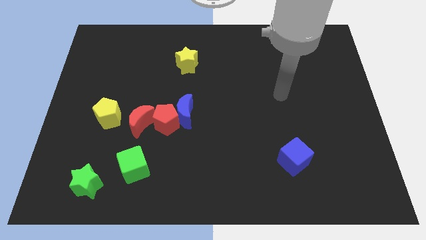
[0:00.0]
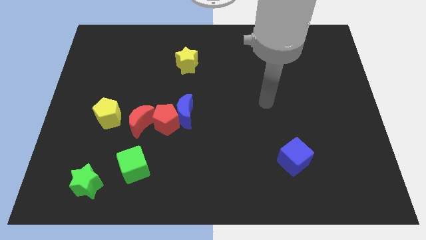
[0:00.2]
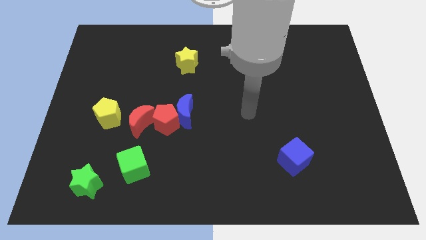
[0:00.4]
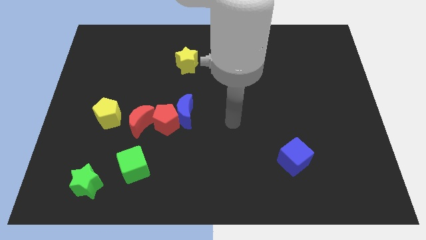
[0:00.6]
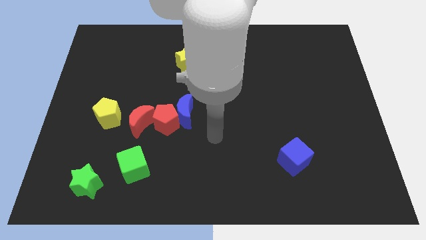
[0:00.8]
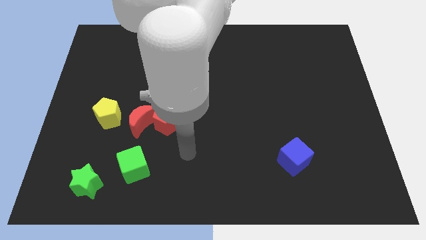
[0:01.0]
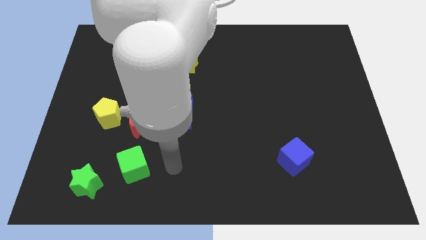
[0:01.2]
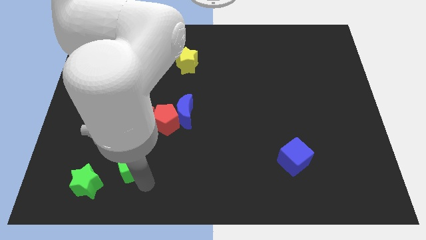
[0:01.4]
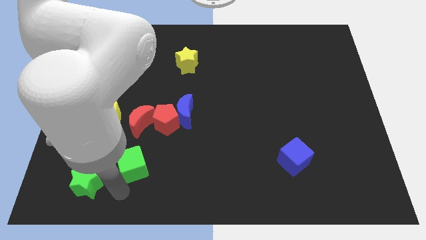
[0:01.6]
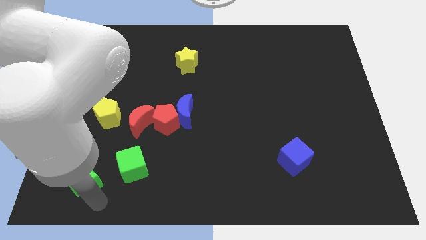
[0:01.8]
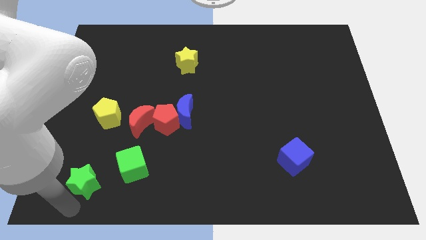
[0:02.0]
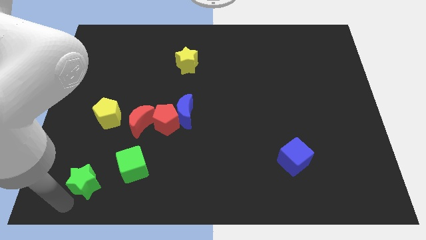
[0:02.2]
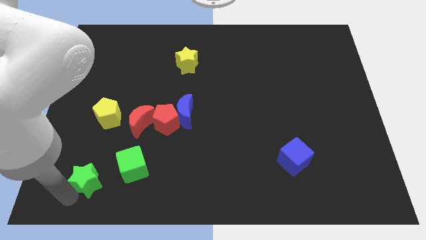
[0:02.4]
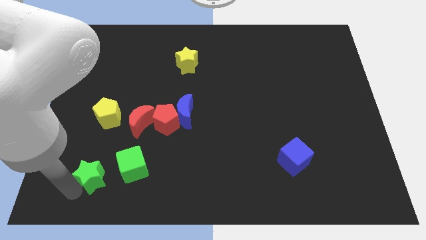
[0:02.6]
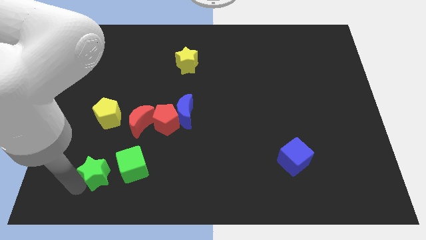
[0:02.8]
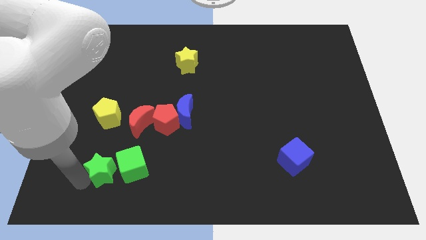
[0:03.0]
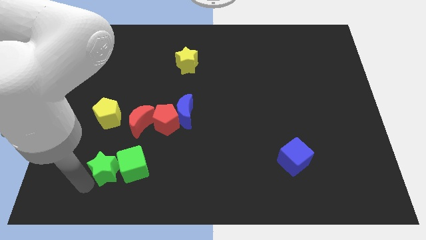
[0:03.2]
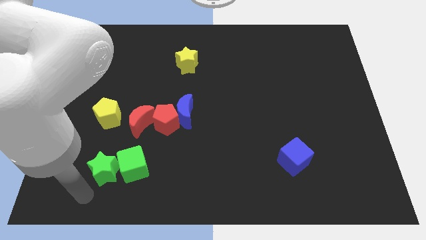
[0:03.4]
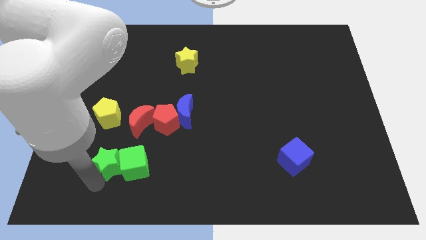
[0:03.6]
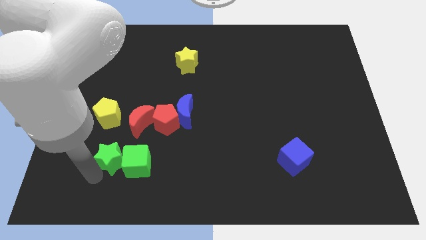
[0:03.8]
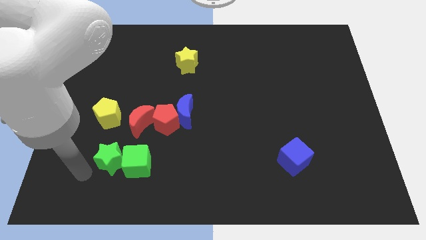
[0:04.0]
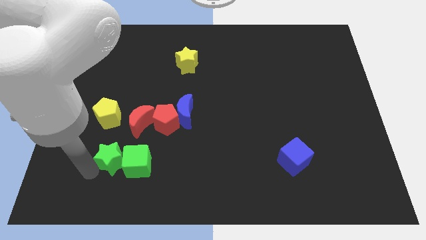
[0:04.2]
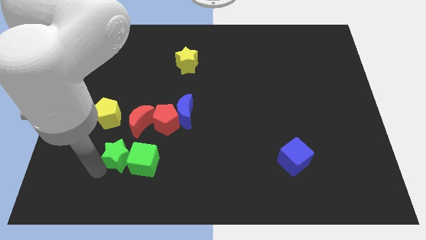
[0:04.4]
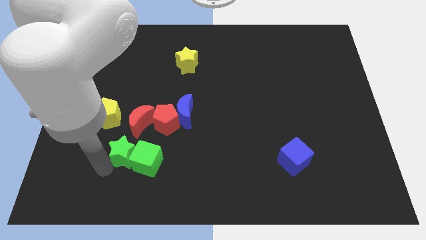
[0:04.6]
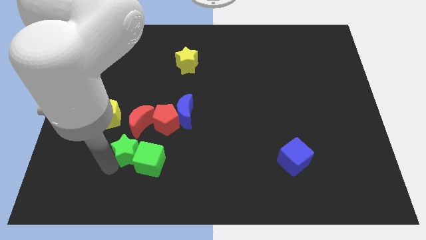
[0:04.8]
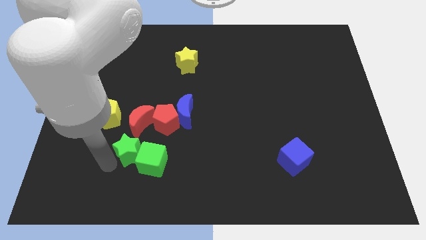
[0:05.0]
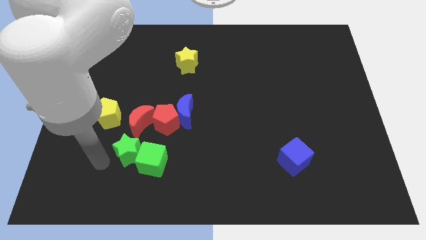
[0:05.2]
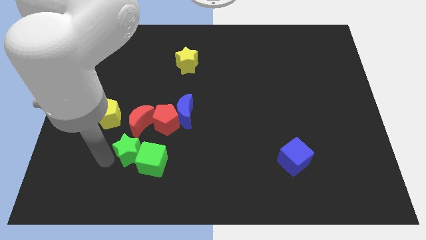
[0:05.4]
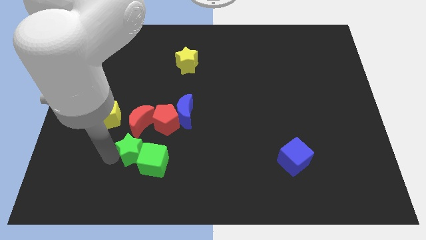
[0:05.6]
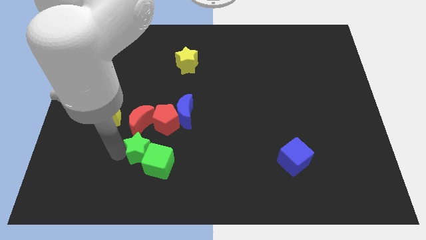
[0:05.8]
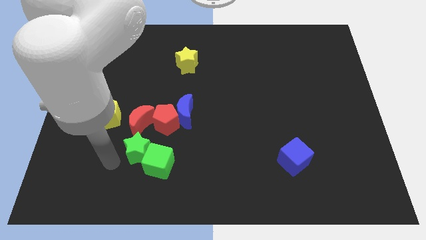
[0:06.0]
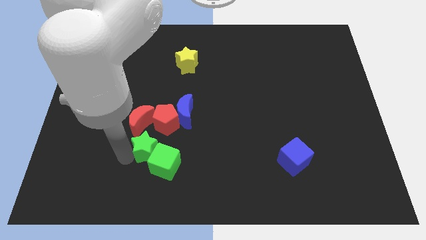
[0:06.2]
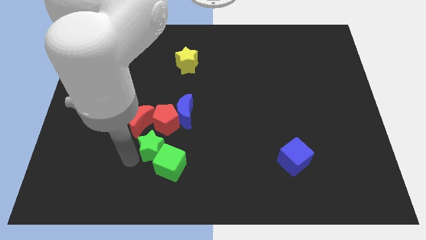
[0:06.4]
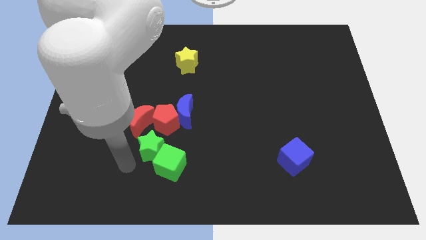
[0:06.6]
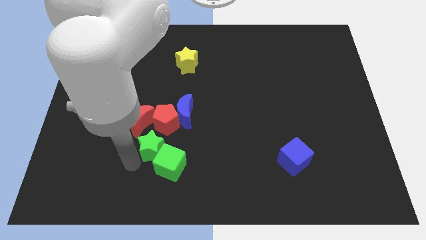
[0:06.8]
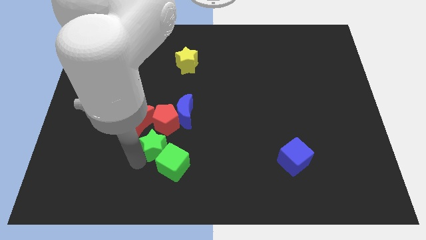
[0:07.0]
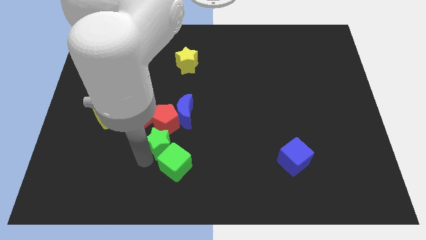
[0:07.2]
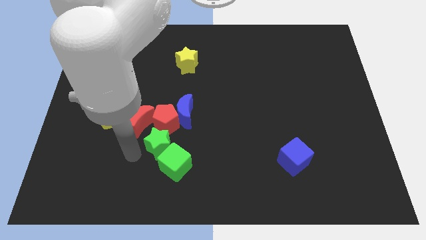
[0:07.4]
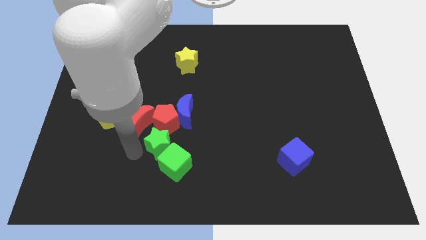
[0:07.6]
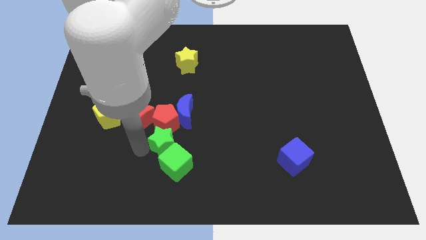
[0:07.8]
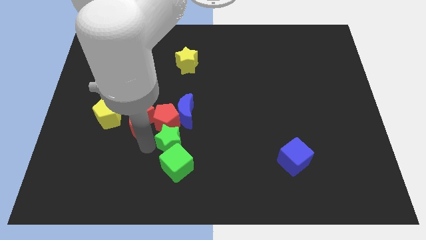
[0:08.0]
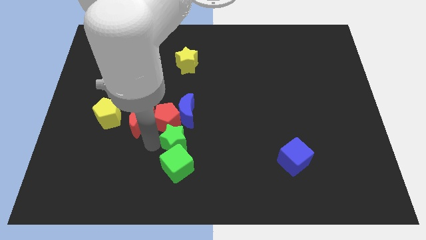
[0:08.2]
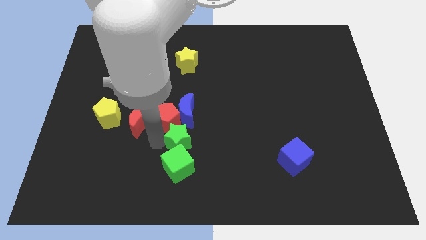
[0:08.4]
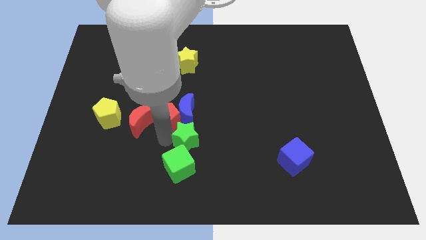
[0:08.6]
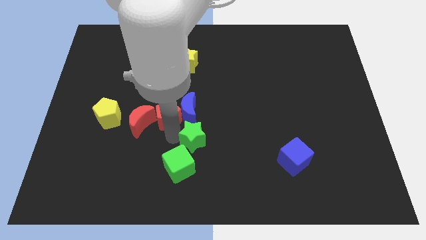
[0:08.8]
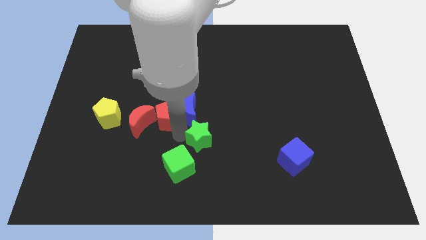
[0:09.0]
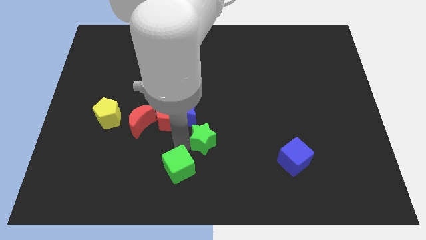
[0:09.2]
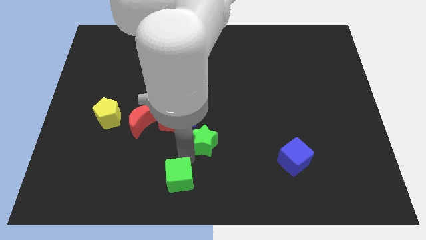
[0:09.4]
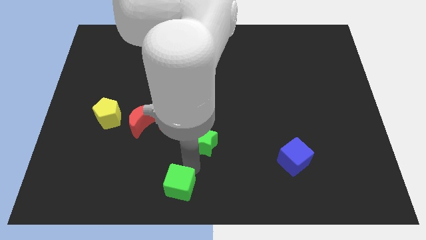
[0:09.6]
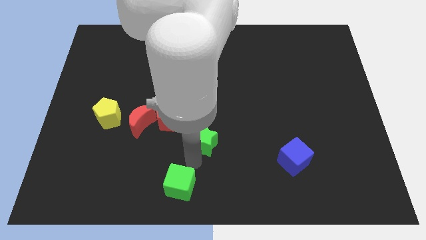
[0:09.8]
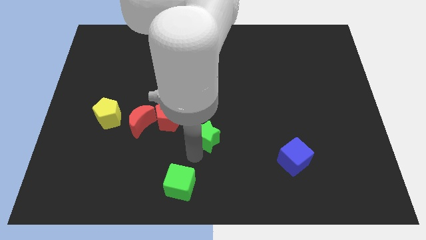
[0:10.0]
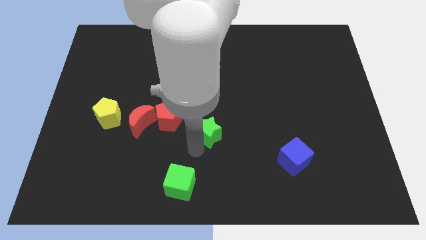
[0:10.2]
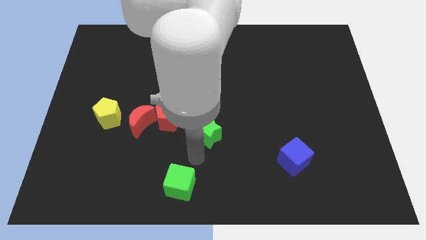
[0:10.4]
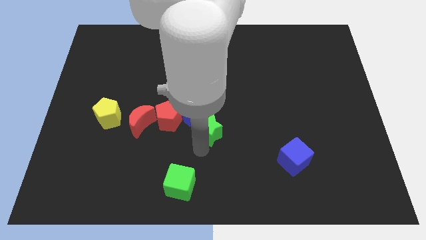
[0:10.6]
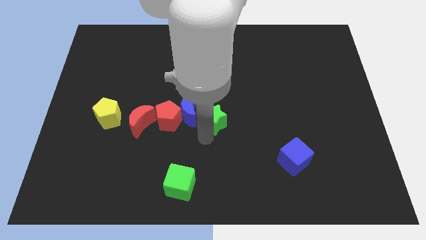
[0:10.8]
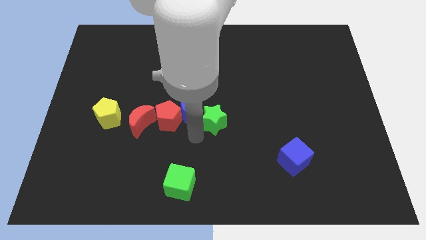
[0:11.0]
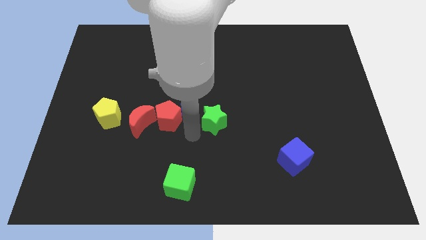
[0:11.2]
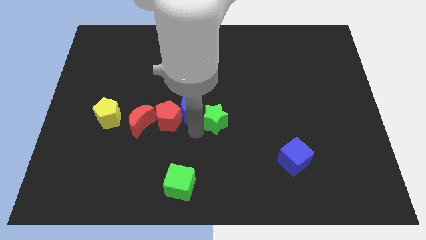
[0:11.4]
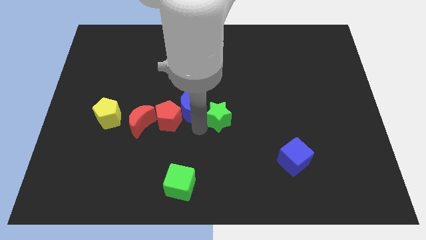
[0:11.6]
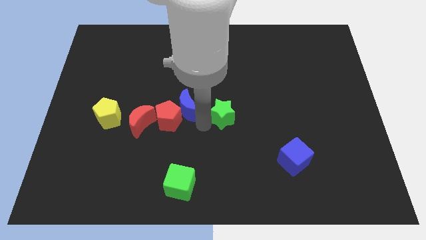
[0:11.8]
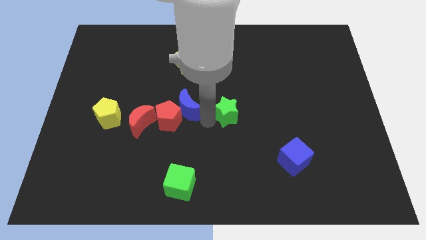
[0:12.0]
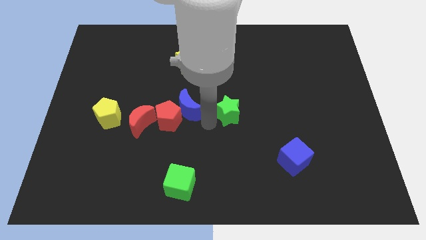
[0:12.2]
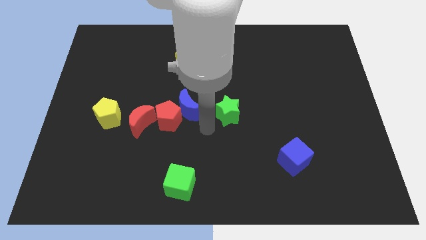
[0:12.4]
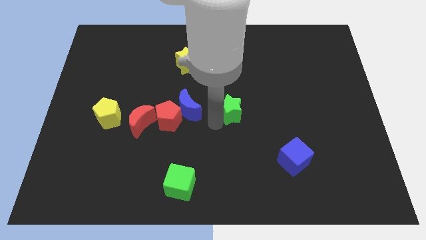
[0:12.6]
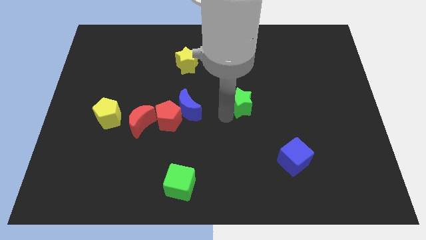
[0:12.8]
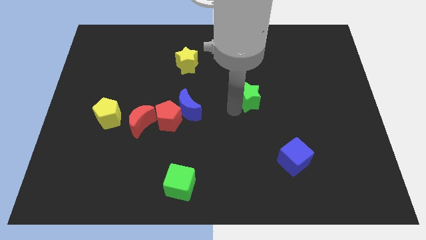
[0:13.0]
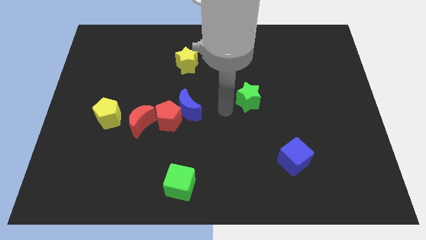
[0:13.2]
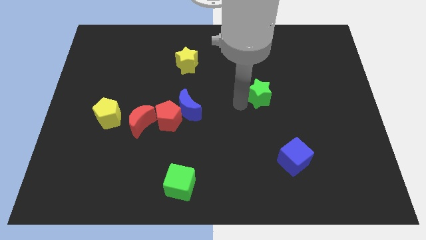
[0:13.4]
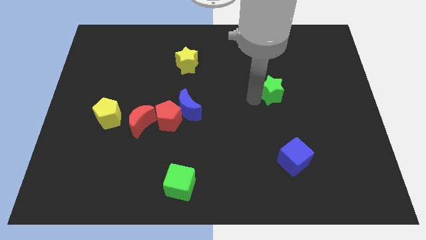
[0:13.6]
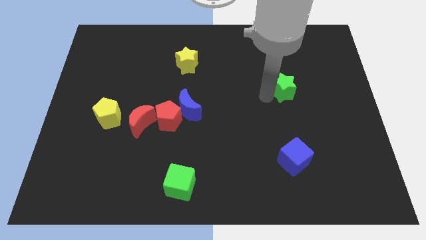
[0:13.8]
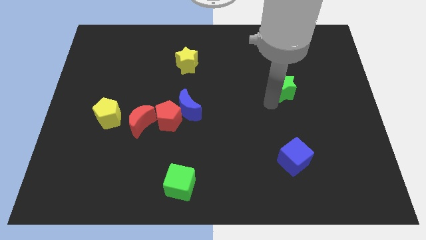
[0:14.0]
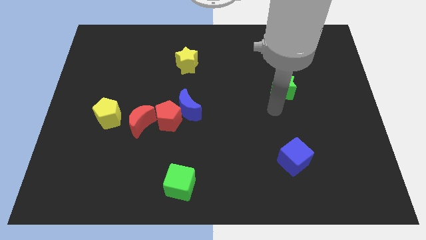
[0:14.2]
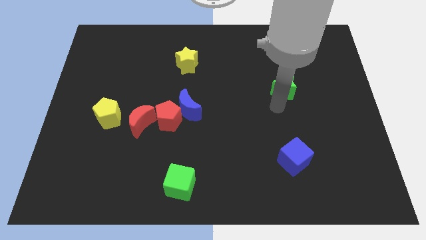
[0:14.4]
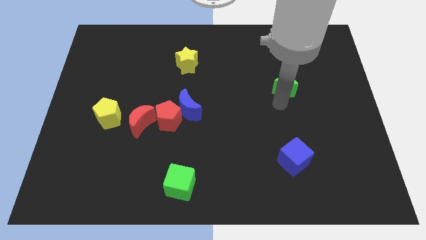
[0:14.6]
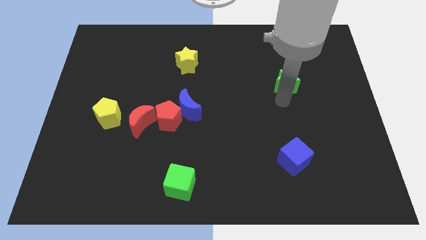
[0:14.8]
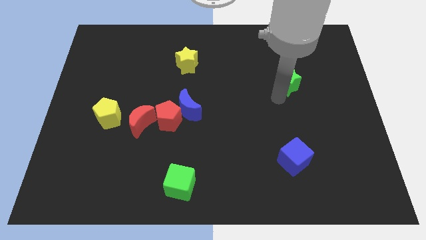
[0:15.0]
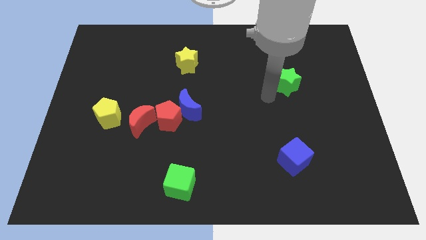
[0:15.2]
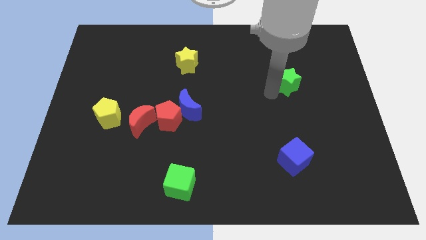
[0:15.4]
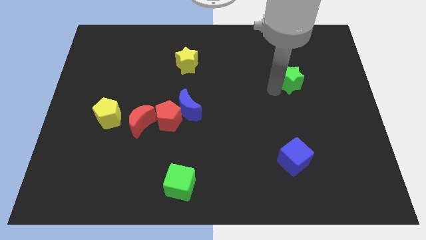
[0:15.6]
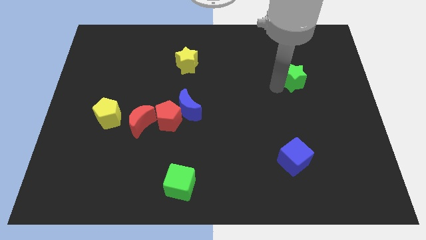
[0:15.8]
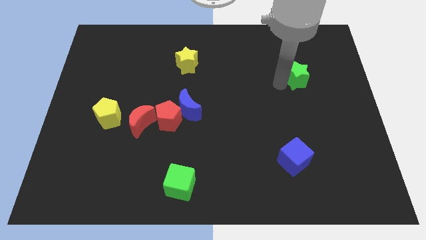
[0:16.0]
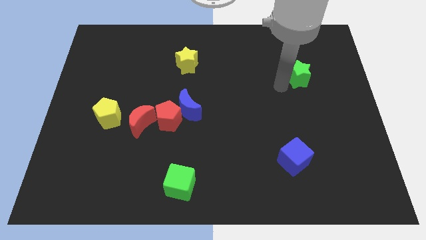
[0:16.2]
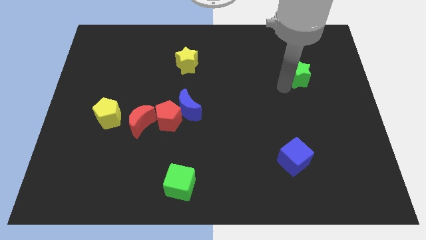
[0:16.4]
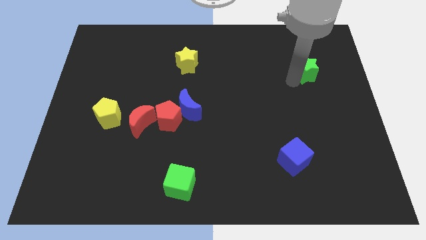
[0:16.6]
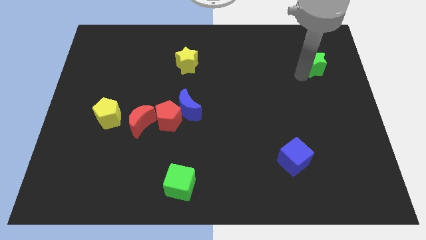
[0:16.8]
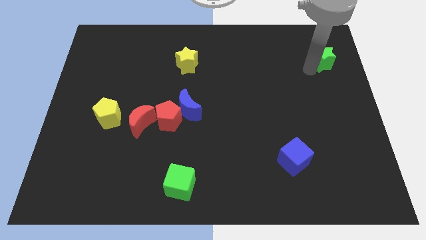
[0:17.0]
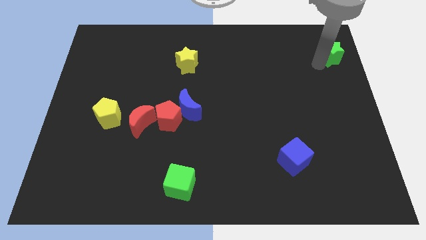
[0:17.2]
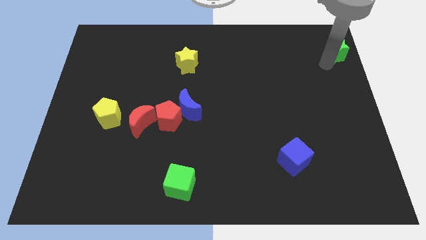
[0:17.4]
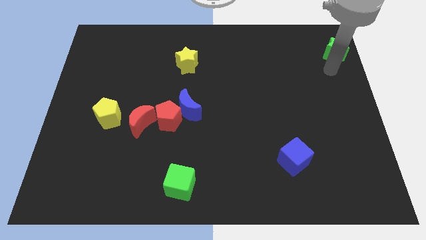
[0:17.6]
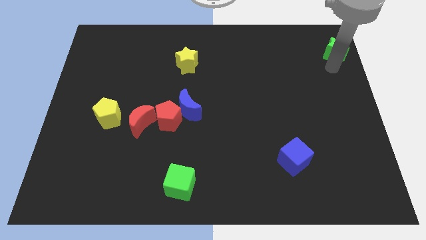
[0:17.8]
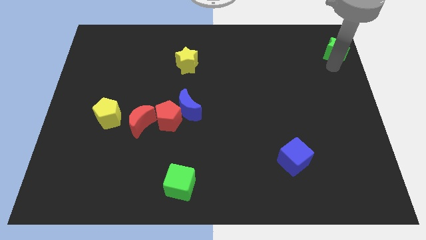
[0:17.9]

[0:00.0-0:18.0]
push the green star to the upper right corner
